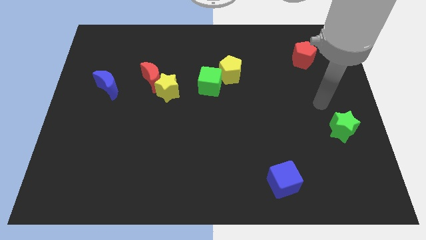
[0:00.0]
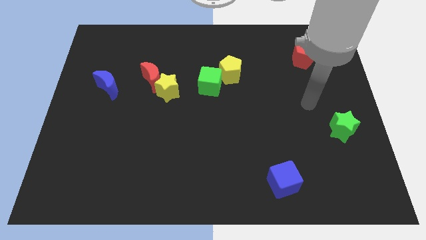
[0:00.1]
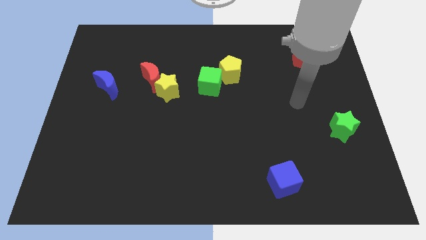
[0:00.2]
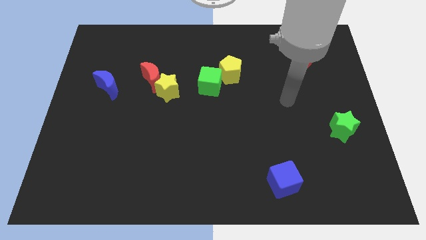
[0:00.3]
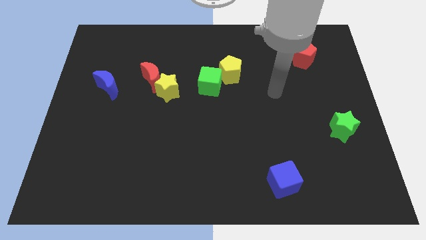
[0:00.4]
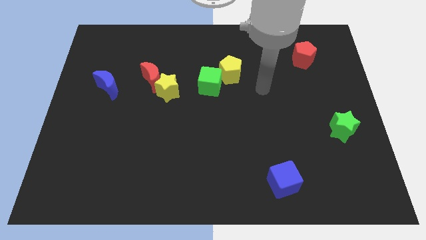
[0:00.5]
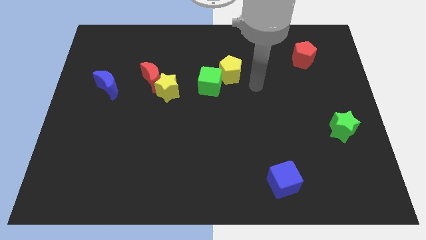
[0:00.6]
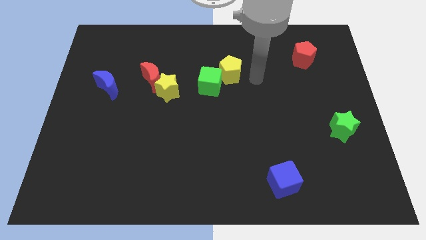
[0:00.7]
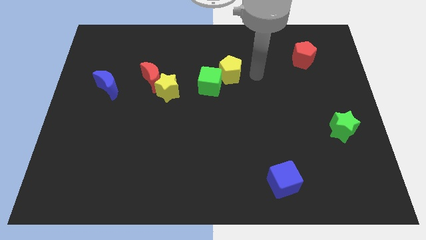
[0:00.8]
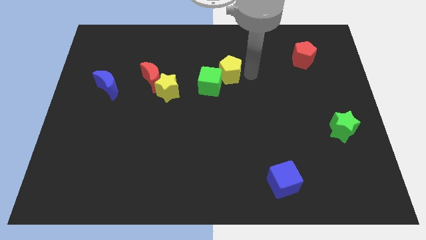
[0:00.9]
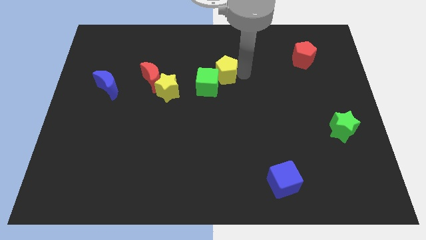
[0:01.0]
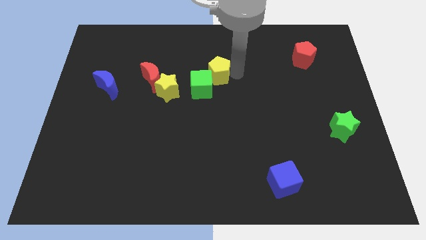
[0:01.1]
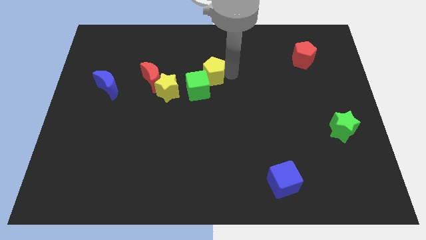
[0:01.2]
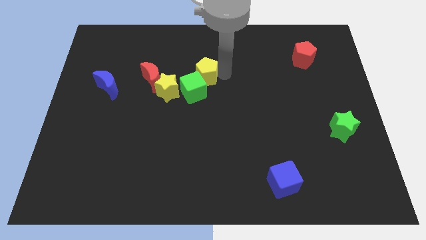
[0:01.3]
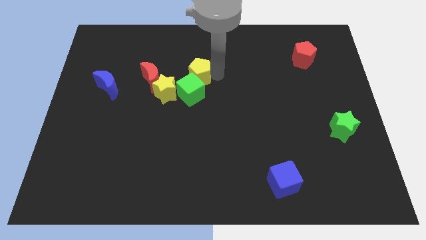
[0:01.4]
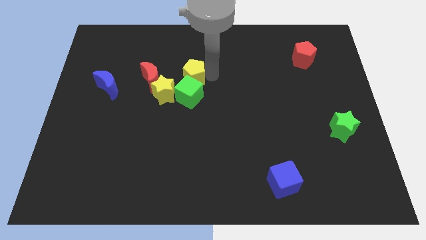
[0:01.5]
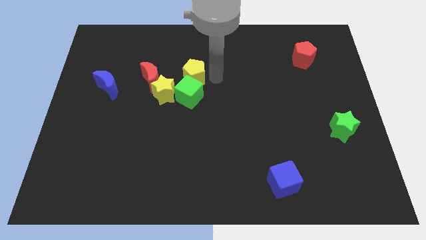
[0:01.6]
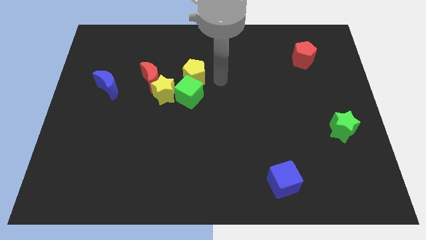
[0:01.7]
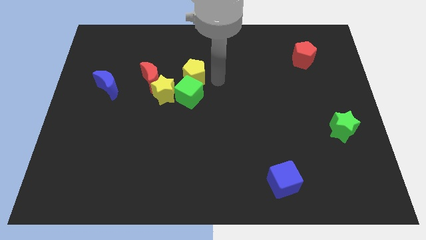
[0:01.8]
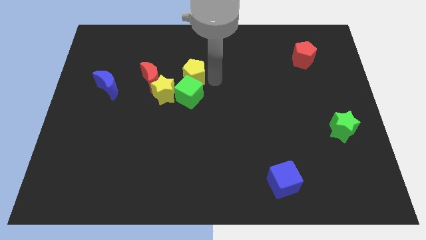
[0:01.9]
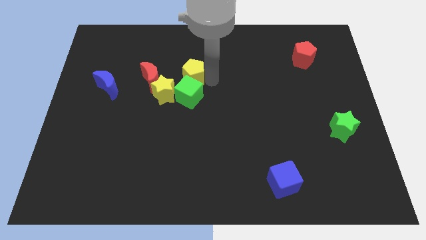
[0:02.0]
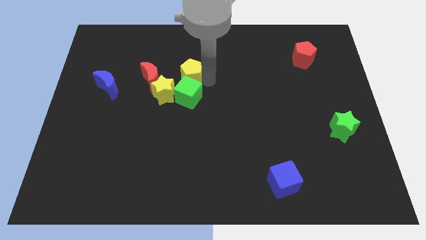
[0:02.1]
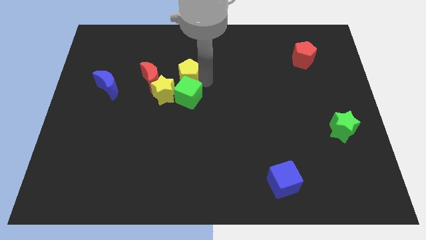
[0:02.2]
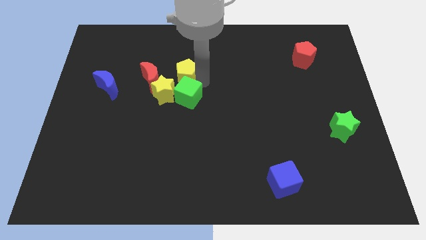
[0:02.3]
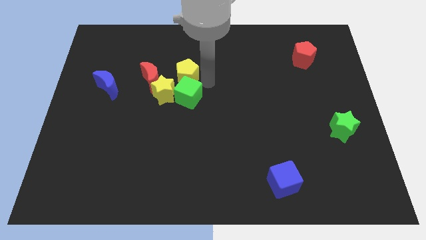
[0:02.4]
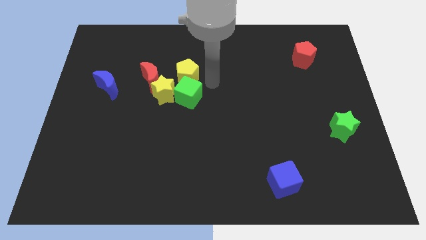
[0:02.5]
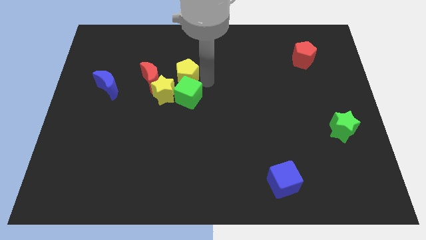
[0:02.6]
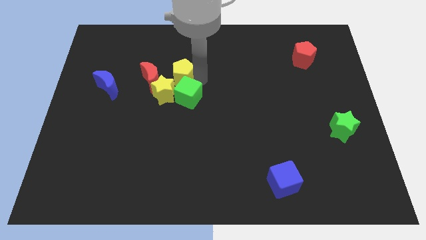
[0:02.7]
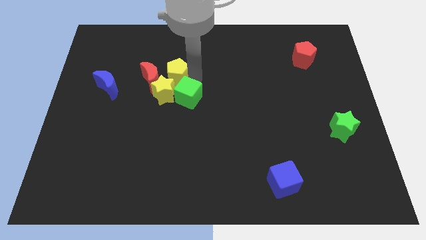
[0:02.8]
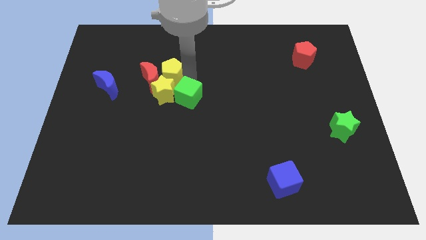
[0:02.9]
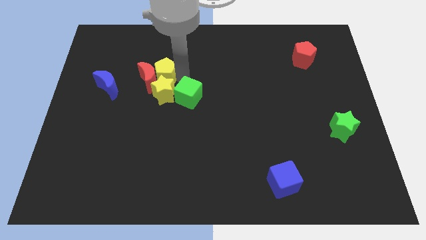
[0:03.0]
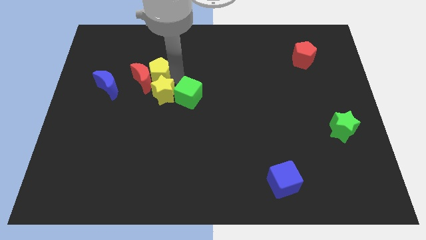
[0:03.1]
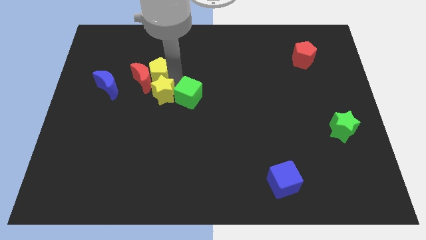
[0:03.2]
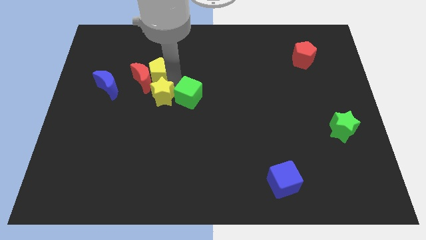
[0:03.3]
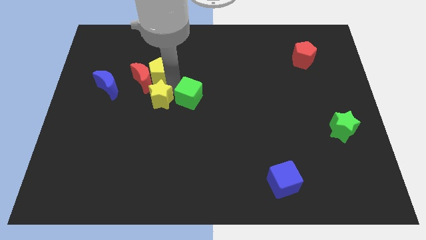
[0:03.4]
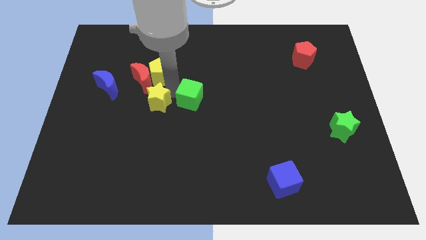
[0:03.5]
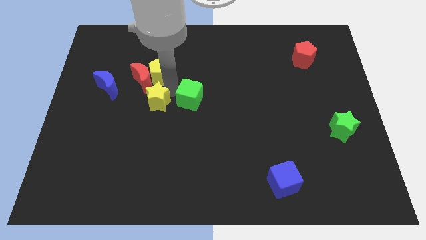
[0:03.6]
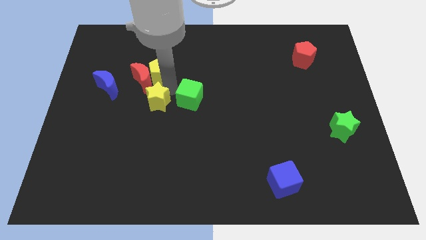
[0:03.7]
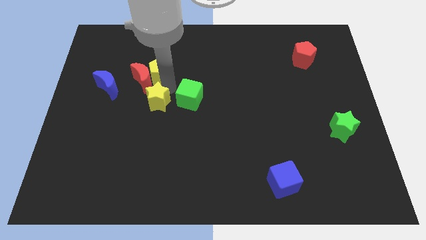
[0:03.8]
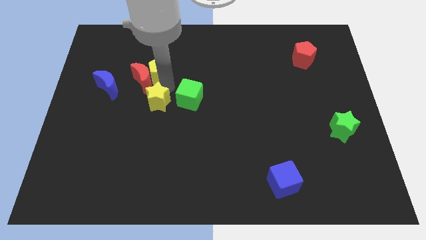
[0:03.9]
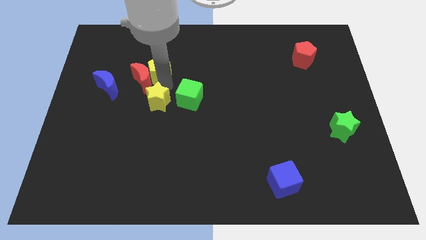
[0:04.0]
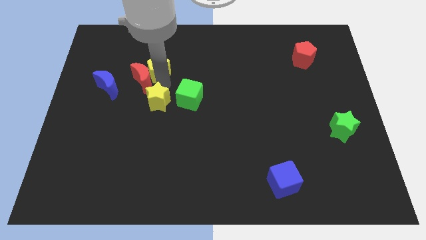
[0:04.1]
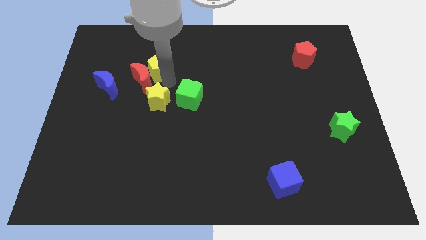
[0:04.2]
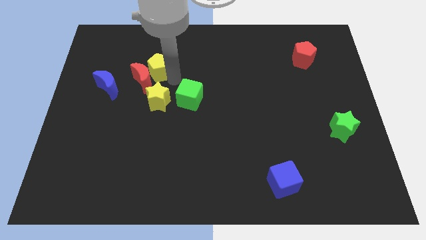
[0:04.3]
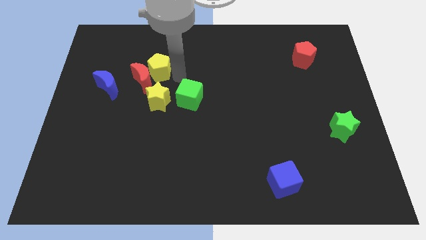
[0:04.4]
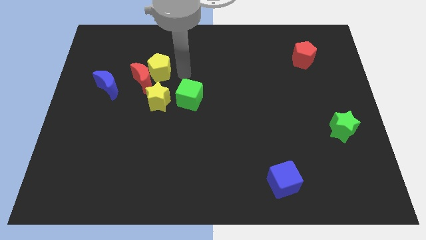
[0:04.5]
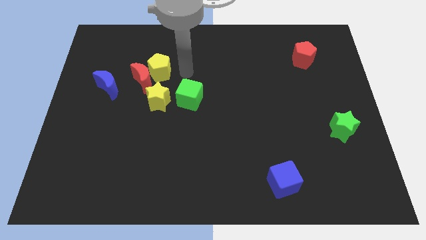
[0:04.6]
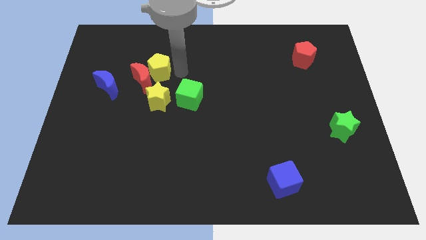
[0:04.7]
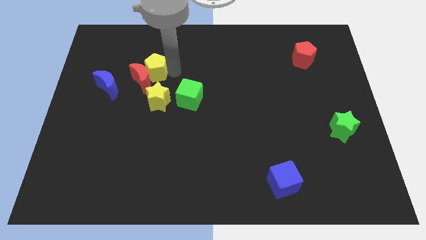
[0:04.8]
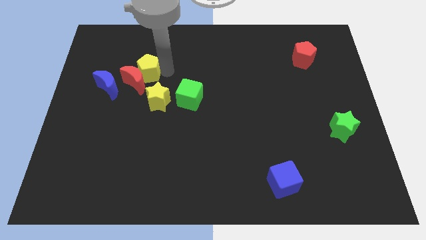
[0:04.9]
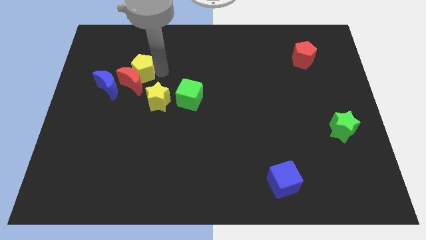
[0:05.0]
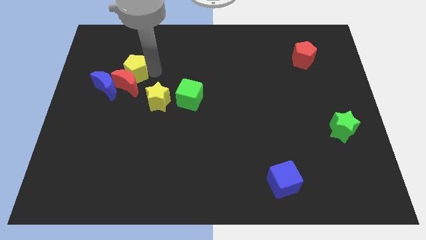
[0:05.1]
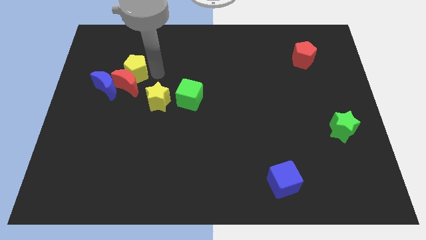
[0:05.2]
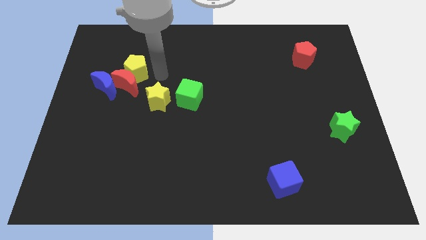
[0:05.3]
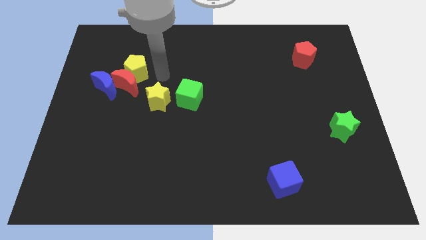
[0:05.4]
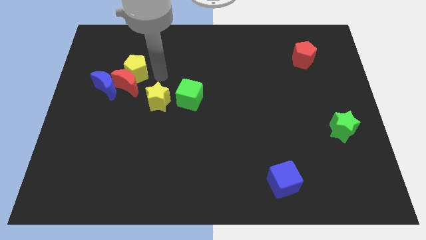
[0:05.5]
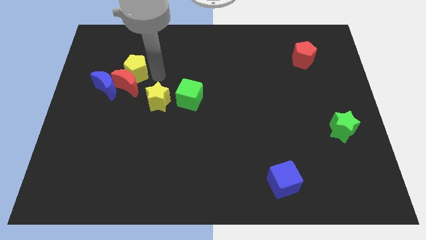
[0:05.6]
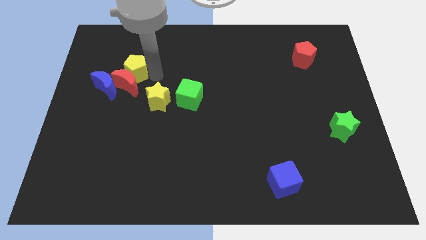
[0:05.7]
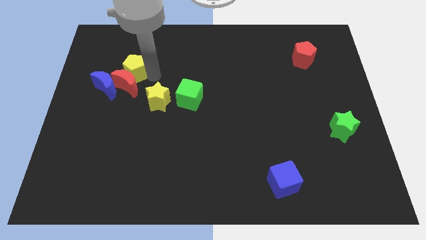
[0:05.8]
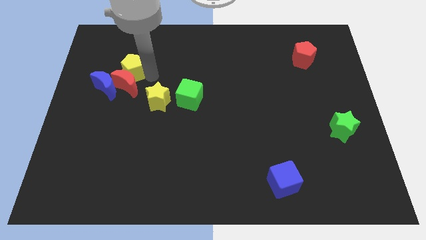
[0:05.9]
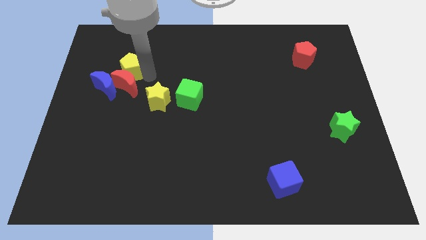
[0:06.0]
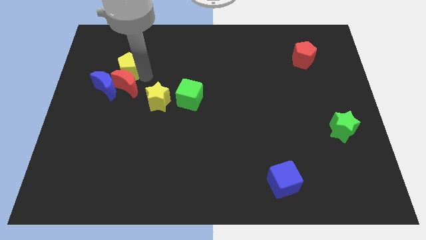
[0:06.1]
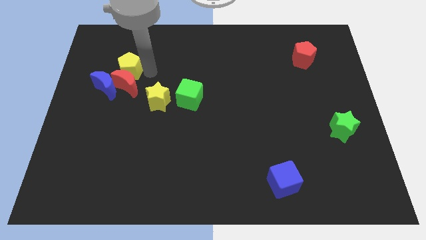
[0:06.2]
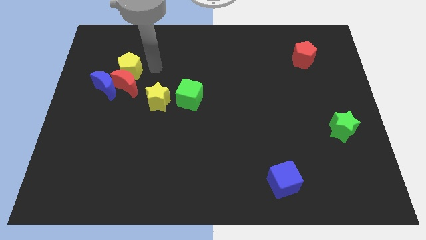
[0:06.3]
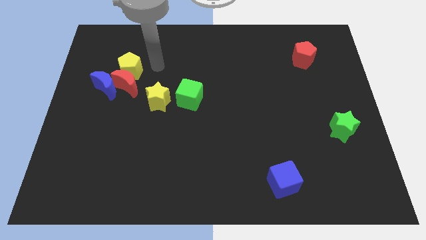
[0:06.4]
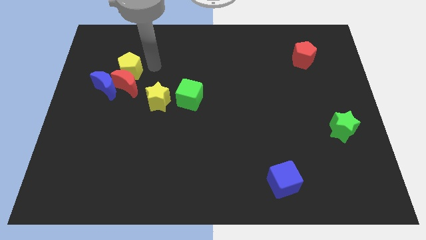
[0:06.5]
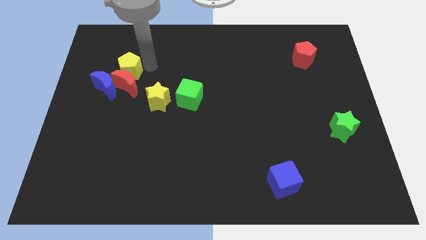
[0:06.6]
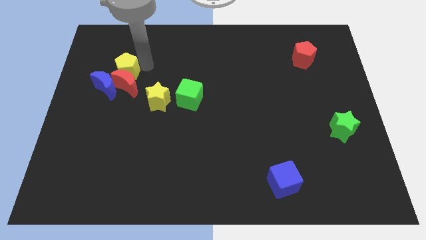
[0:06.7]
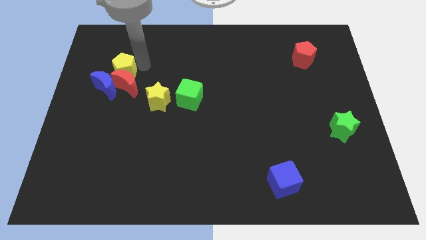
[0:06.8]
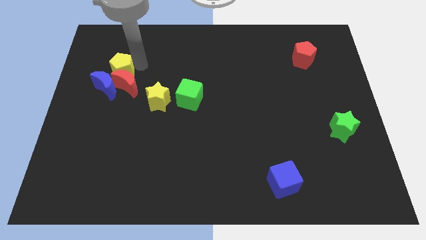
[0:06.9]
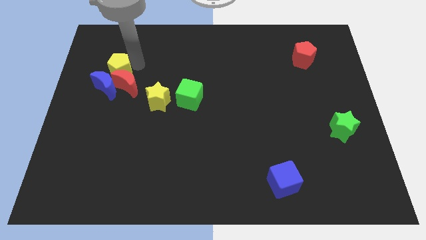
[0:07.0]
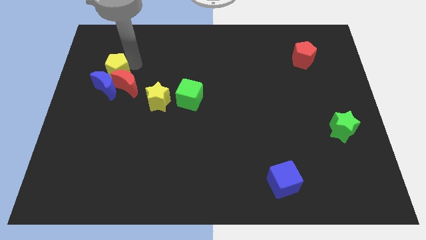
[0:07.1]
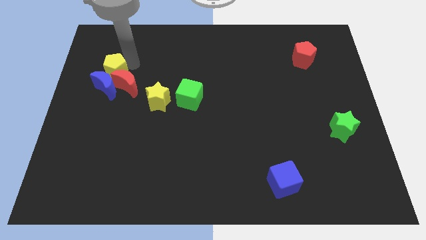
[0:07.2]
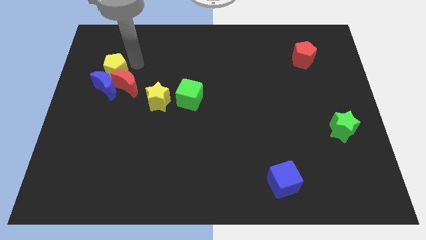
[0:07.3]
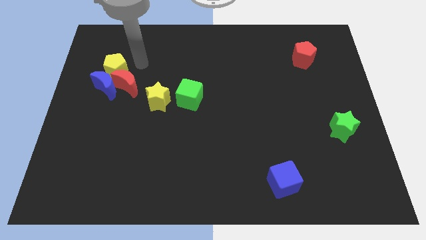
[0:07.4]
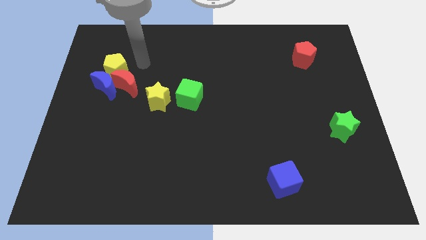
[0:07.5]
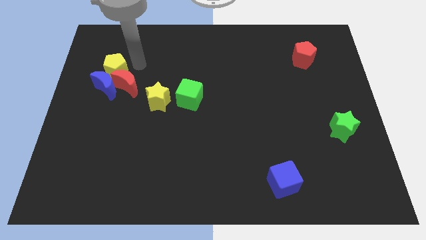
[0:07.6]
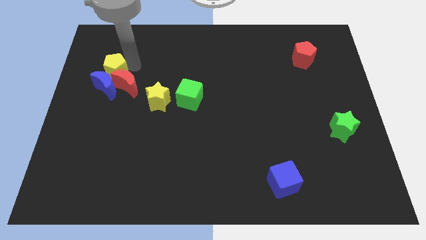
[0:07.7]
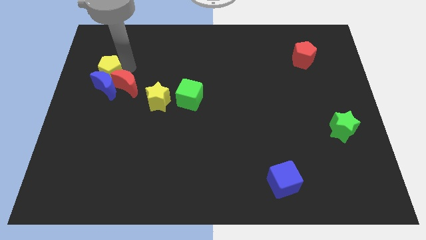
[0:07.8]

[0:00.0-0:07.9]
move the yellow pentagon to the left side of the red moon
